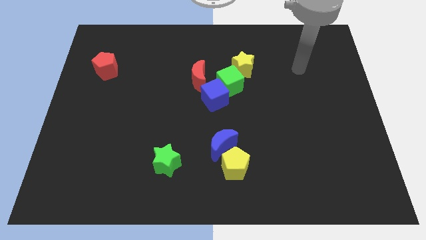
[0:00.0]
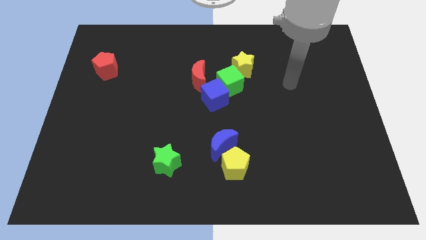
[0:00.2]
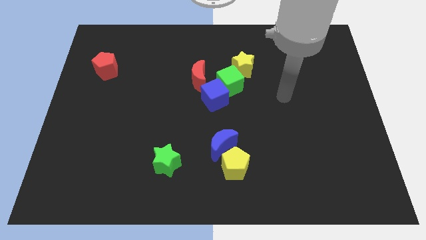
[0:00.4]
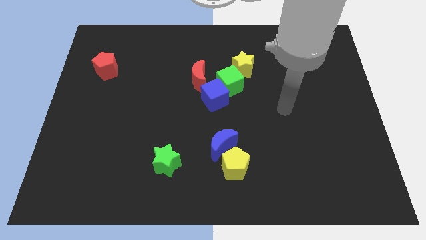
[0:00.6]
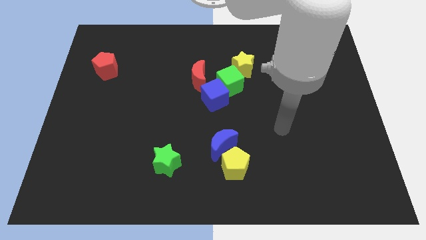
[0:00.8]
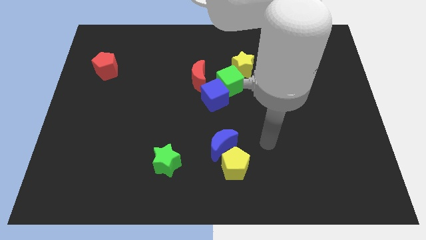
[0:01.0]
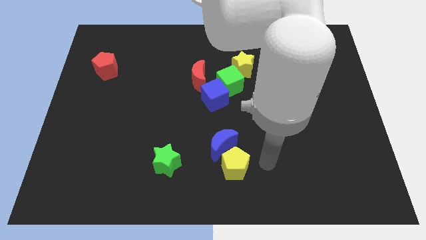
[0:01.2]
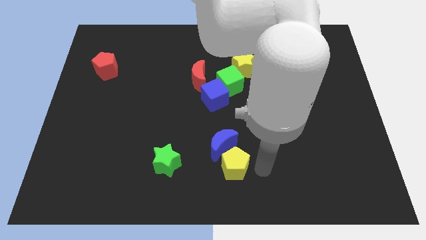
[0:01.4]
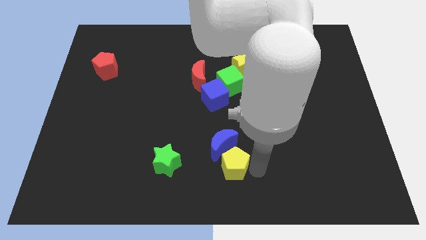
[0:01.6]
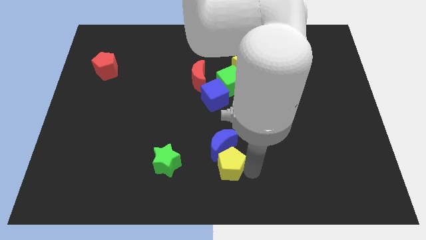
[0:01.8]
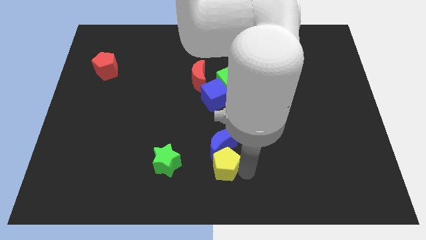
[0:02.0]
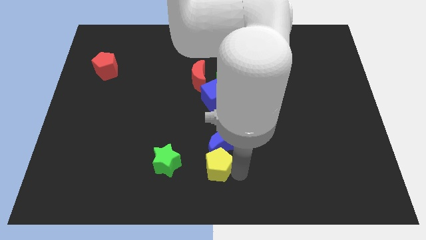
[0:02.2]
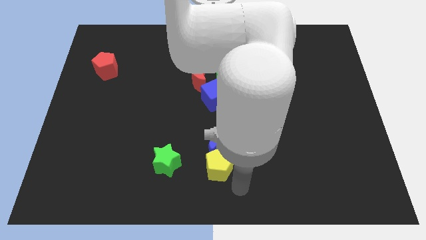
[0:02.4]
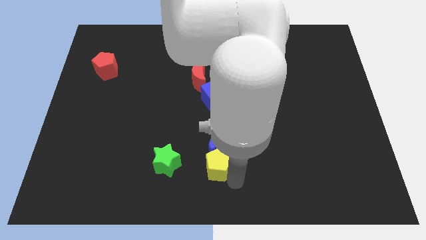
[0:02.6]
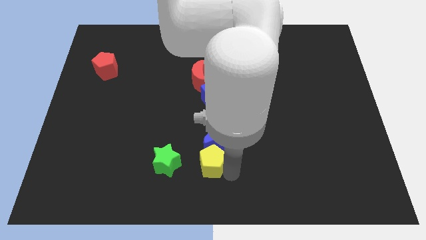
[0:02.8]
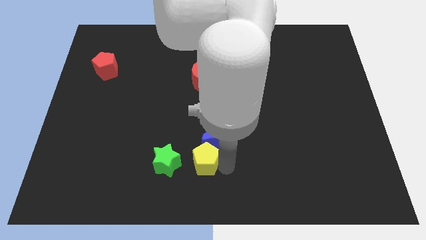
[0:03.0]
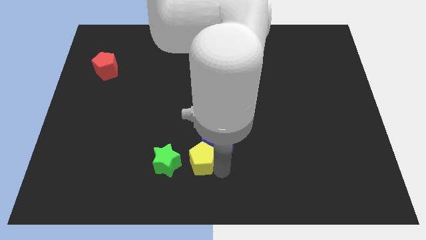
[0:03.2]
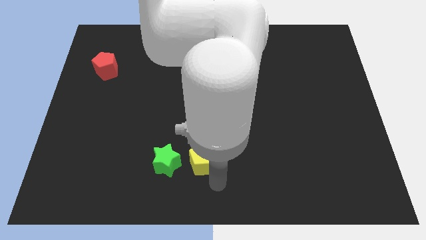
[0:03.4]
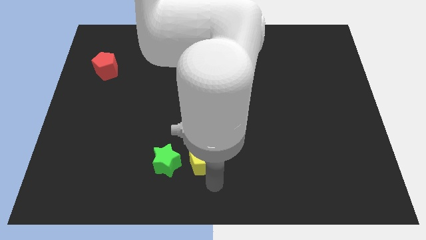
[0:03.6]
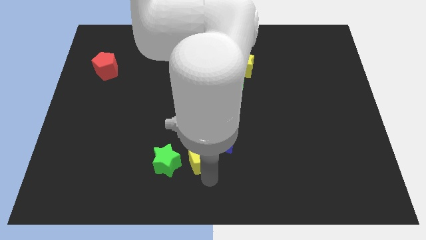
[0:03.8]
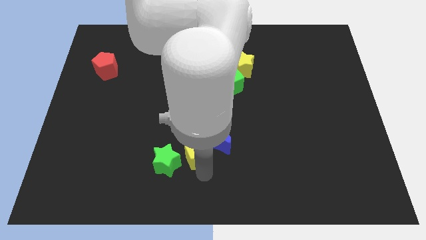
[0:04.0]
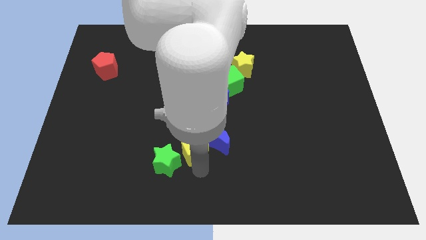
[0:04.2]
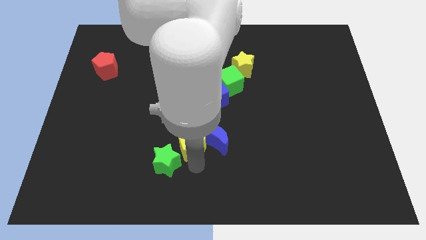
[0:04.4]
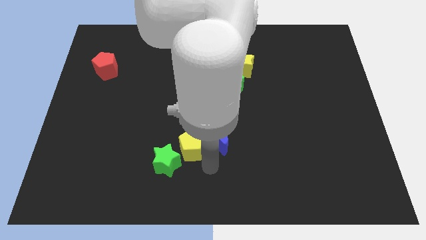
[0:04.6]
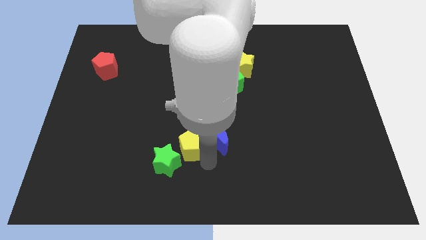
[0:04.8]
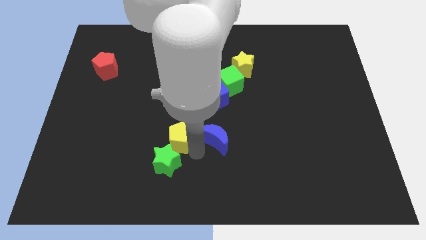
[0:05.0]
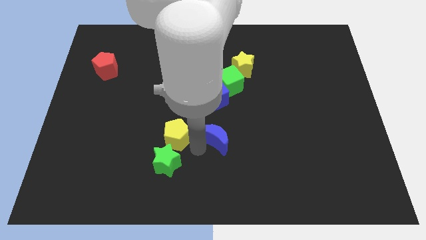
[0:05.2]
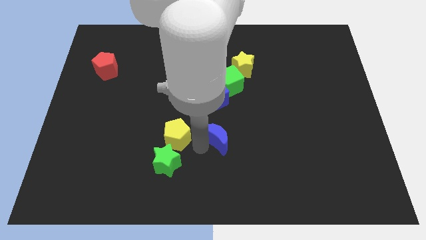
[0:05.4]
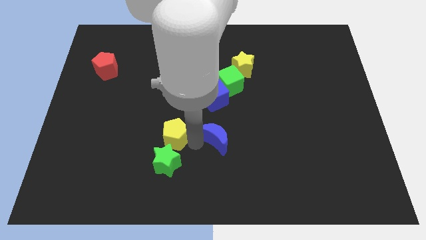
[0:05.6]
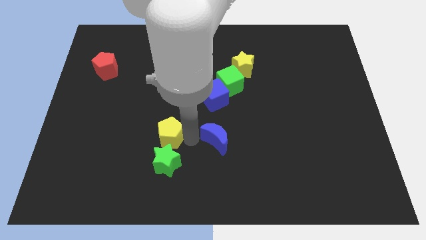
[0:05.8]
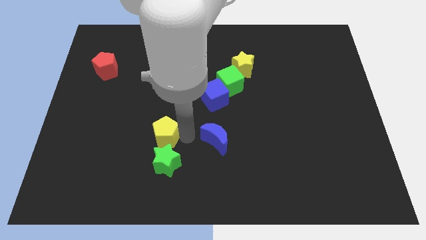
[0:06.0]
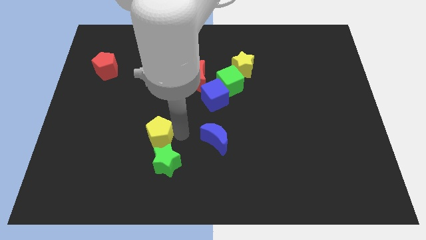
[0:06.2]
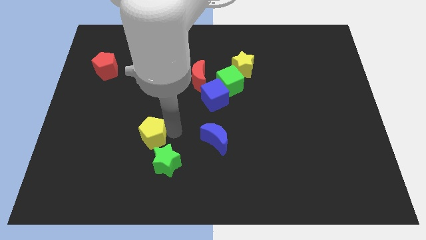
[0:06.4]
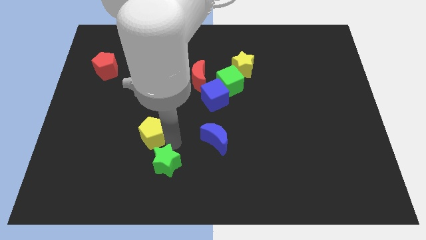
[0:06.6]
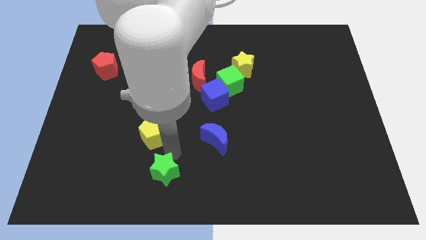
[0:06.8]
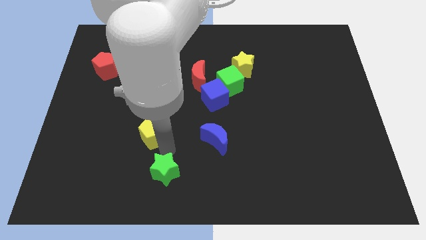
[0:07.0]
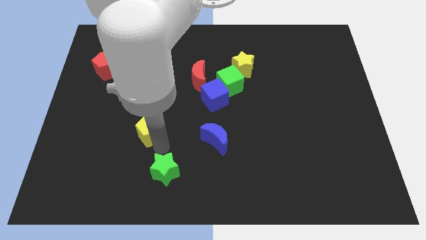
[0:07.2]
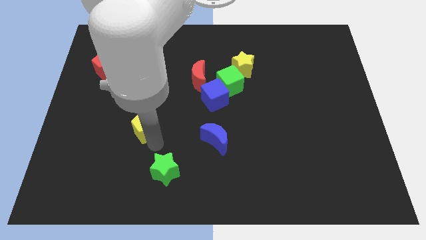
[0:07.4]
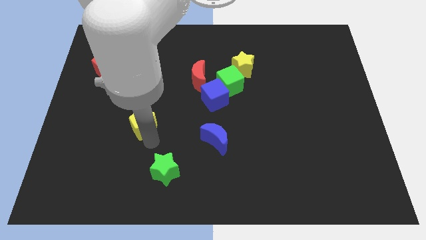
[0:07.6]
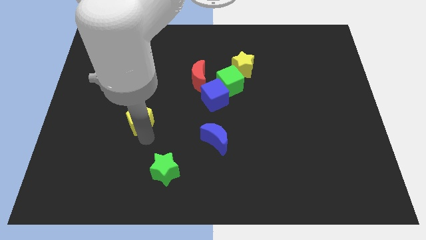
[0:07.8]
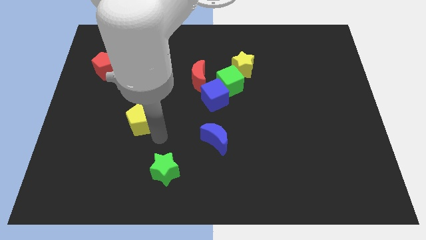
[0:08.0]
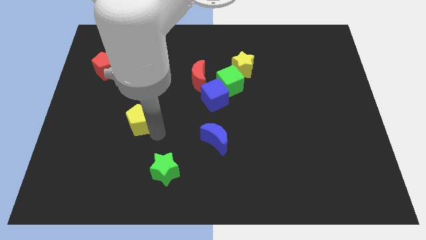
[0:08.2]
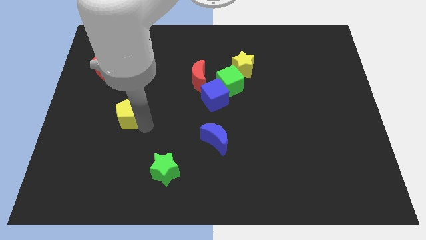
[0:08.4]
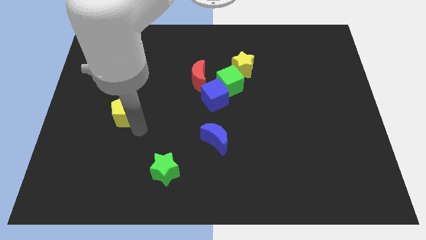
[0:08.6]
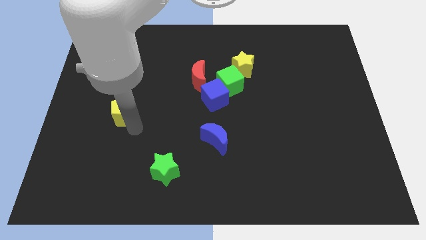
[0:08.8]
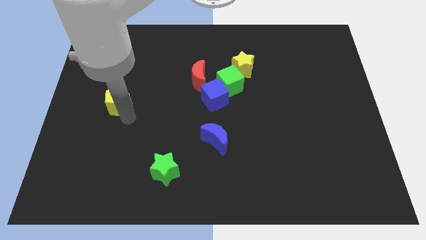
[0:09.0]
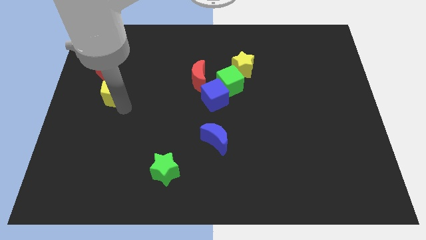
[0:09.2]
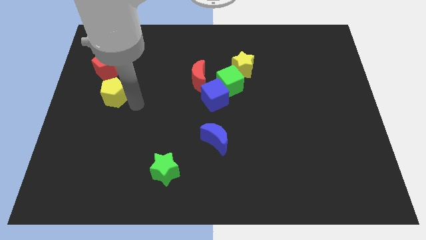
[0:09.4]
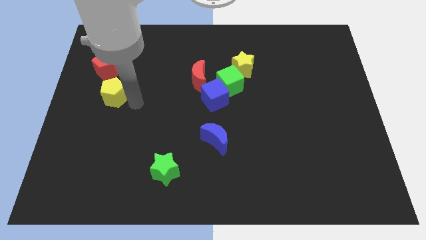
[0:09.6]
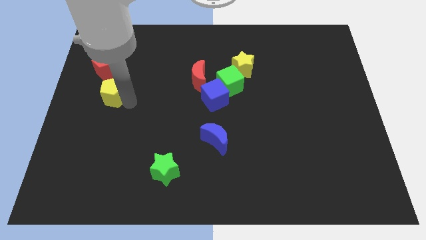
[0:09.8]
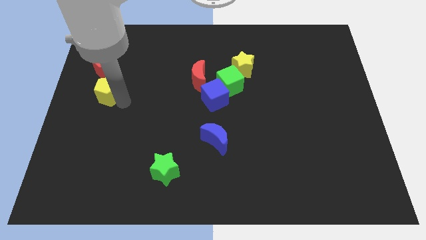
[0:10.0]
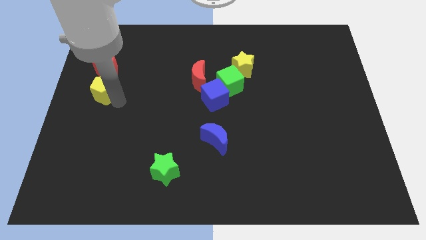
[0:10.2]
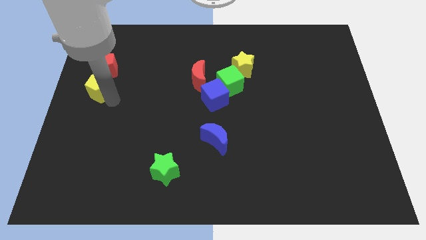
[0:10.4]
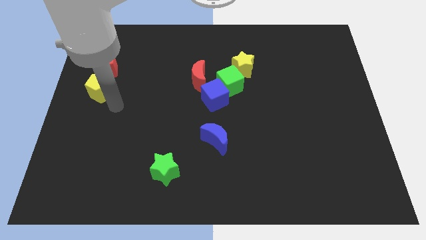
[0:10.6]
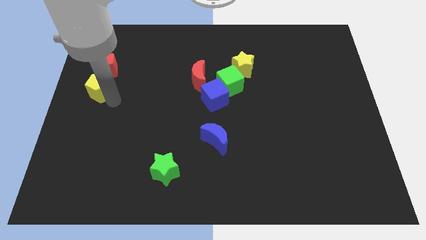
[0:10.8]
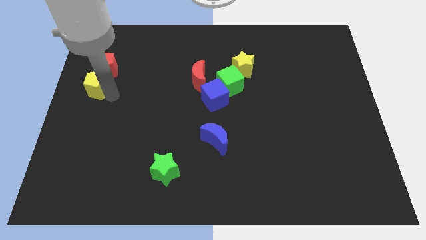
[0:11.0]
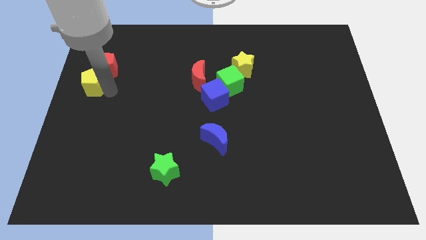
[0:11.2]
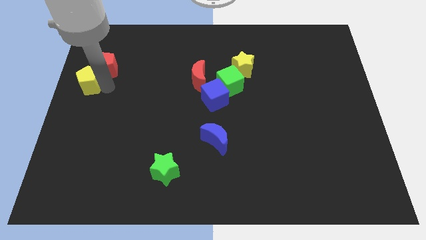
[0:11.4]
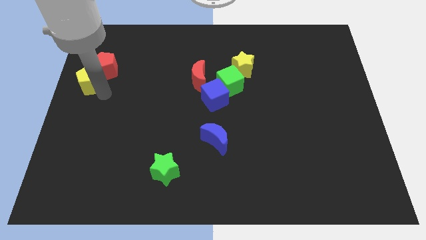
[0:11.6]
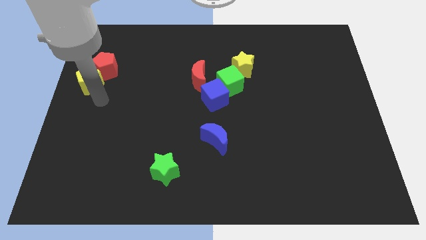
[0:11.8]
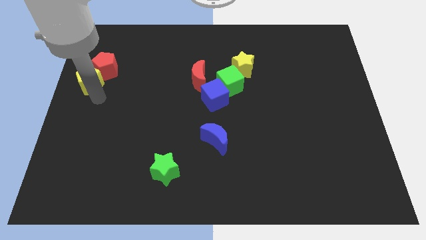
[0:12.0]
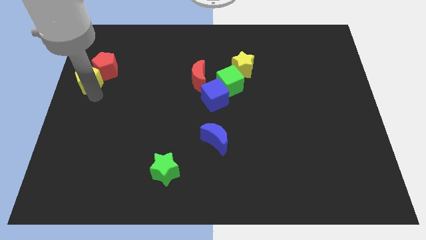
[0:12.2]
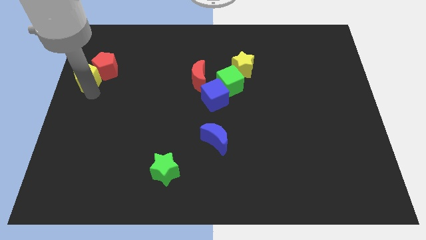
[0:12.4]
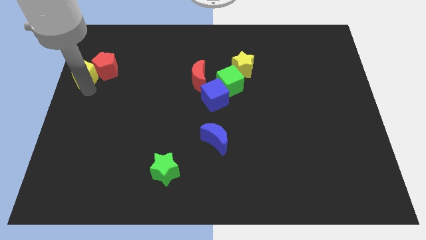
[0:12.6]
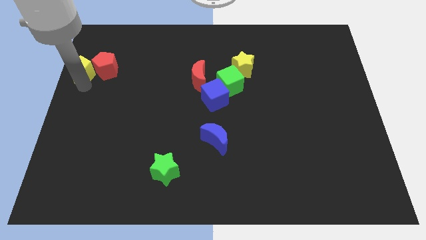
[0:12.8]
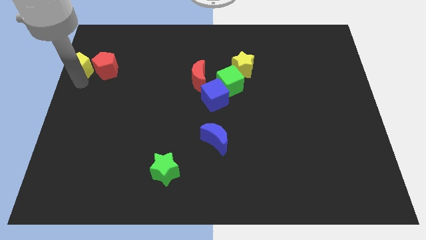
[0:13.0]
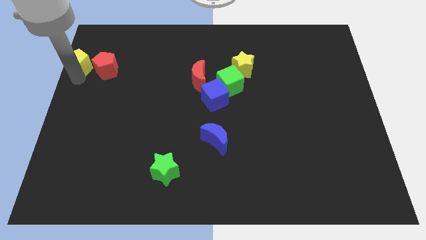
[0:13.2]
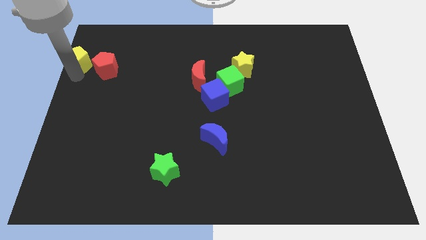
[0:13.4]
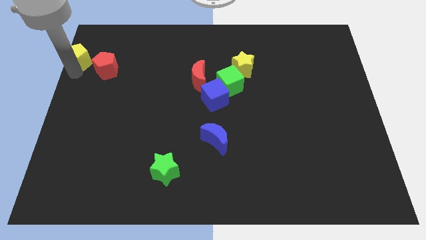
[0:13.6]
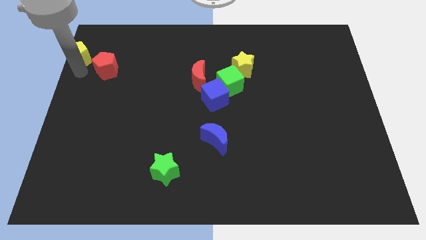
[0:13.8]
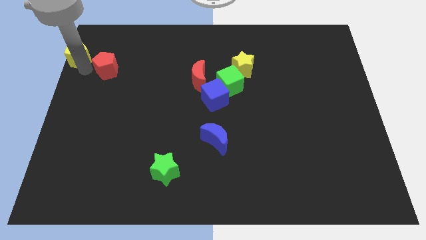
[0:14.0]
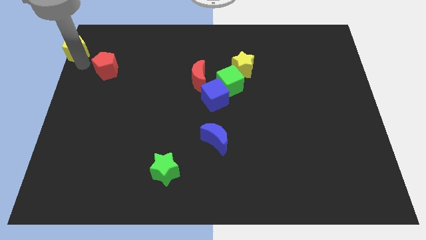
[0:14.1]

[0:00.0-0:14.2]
push the yellow pentagon to the top left
